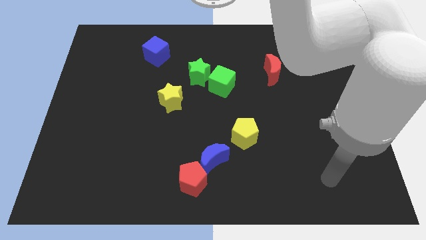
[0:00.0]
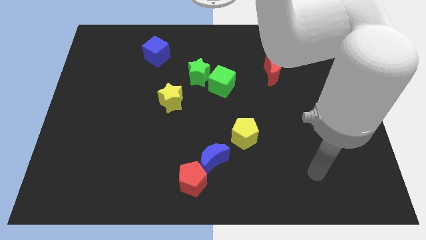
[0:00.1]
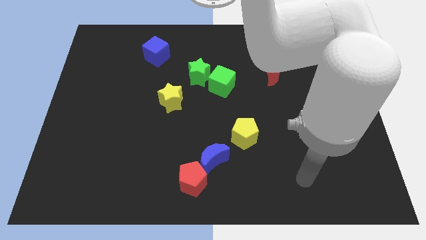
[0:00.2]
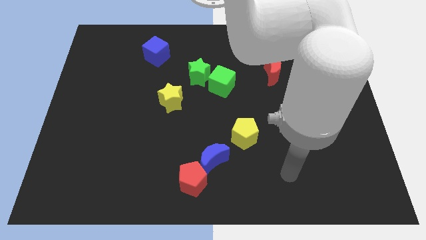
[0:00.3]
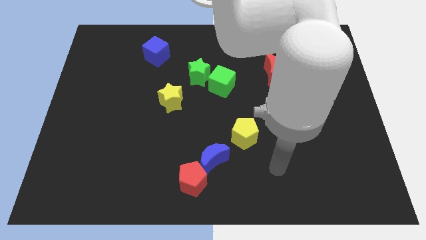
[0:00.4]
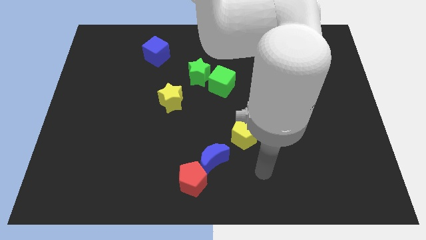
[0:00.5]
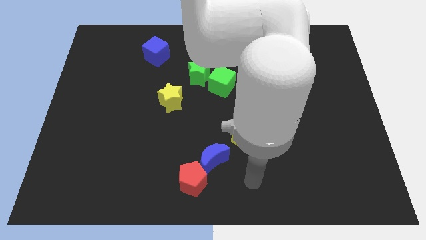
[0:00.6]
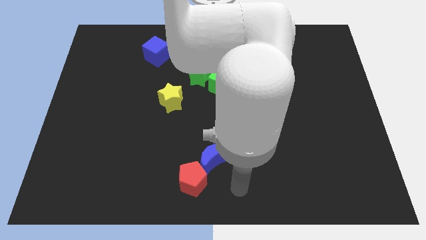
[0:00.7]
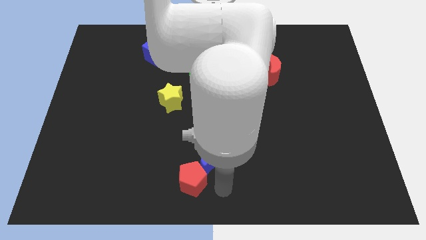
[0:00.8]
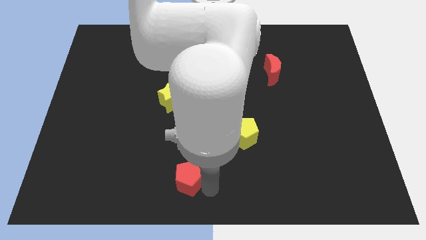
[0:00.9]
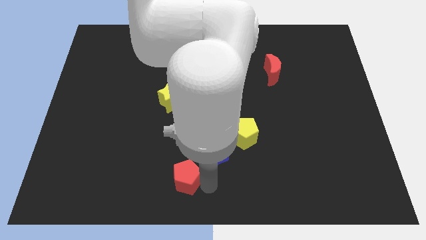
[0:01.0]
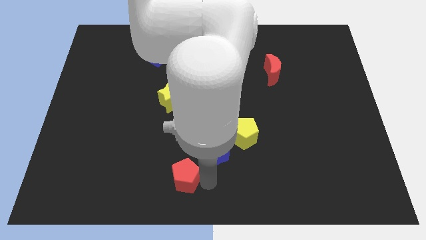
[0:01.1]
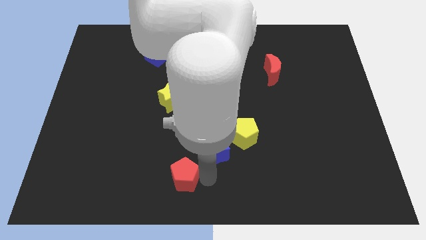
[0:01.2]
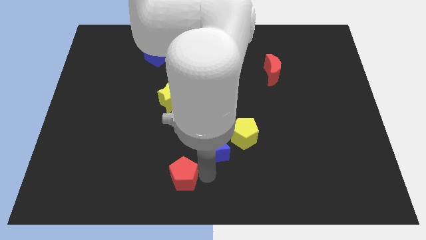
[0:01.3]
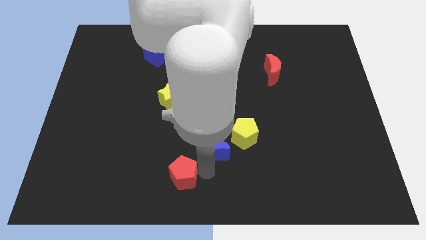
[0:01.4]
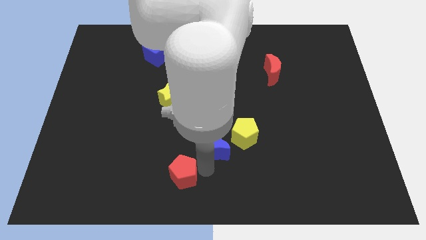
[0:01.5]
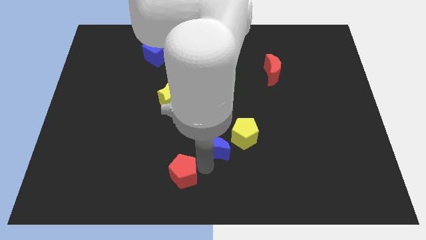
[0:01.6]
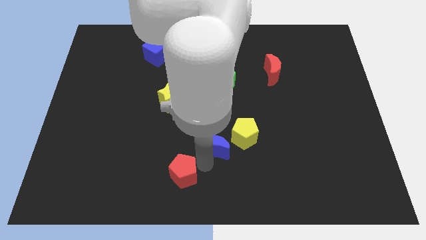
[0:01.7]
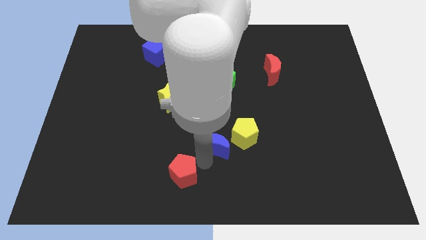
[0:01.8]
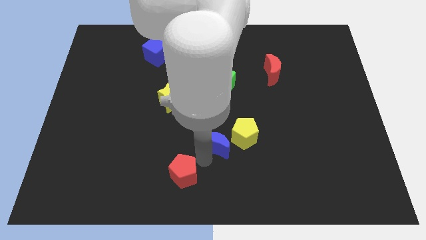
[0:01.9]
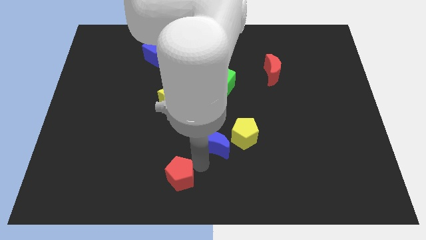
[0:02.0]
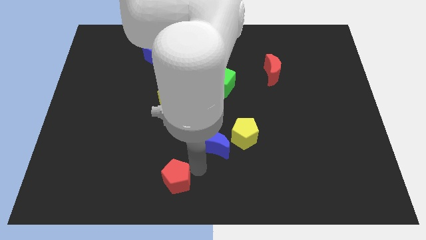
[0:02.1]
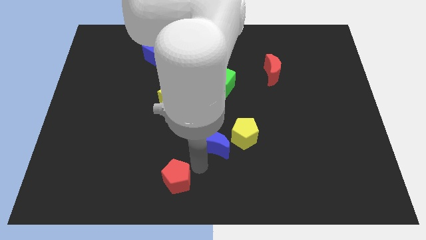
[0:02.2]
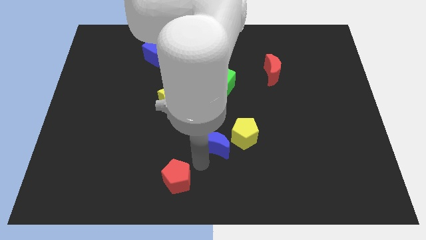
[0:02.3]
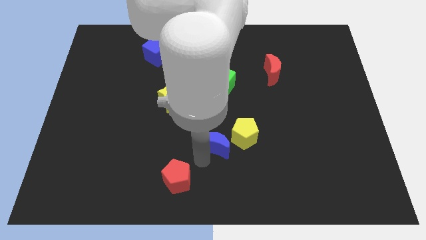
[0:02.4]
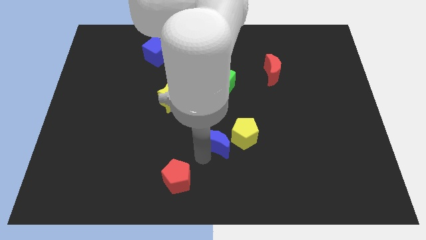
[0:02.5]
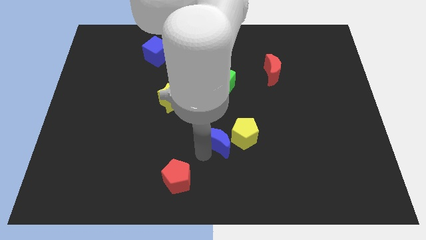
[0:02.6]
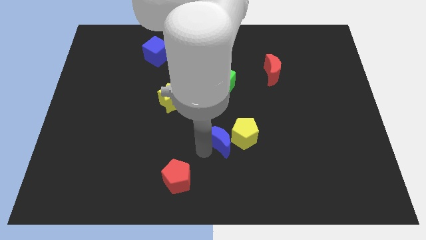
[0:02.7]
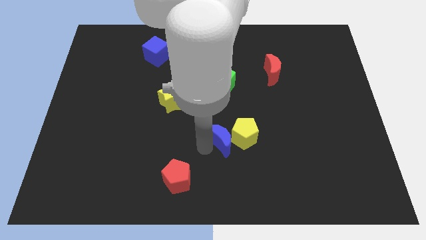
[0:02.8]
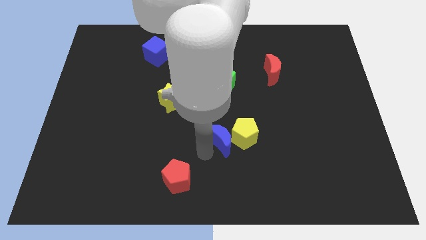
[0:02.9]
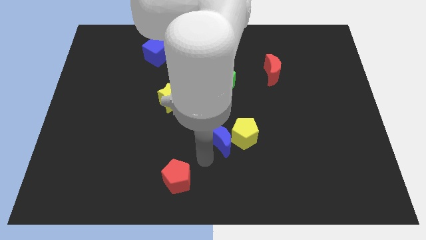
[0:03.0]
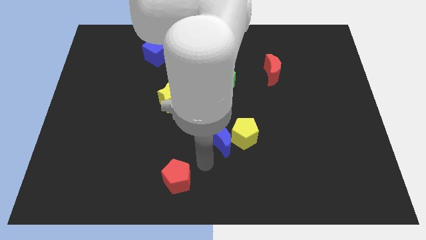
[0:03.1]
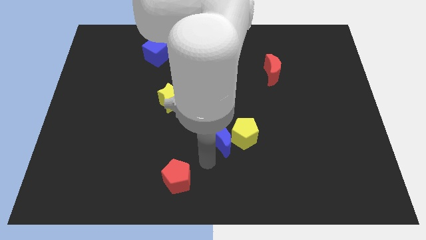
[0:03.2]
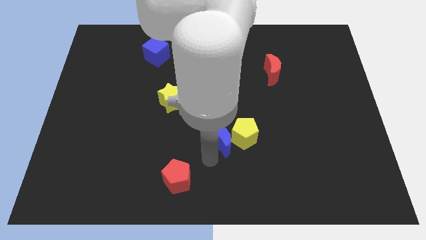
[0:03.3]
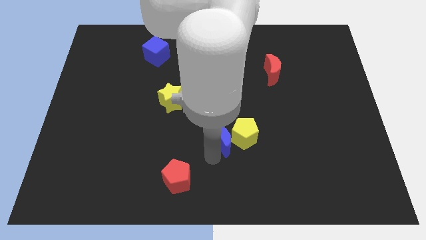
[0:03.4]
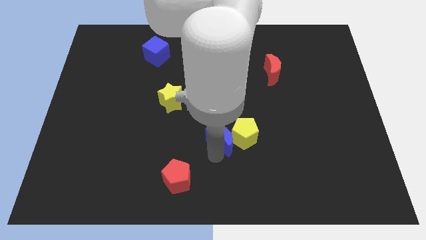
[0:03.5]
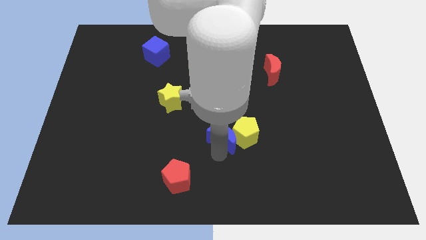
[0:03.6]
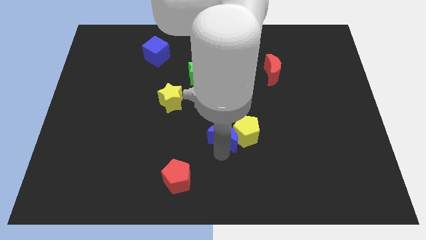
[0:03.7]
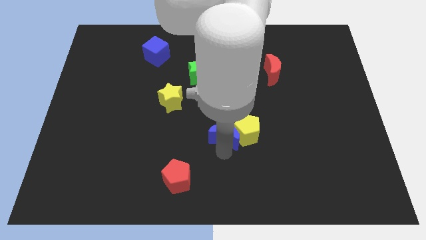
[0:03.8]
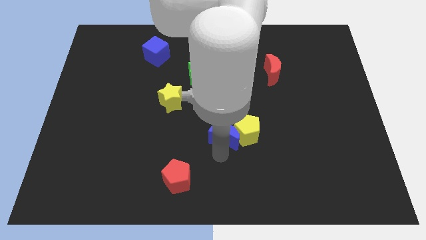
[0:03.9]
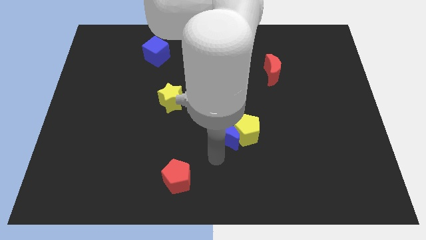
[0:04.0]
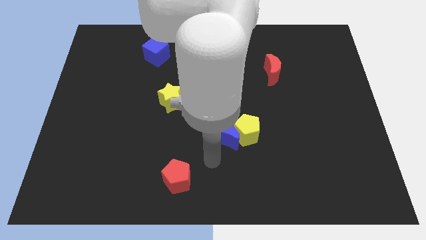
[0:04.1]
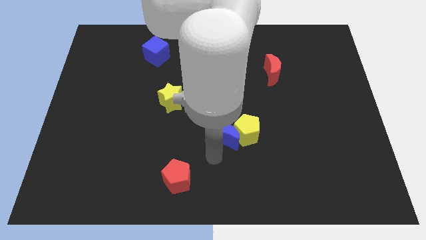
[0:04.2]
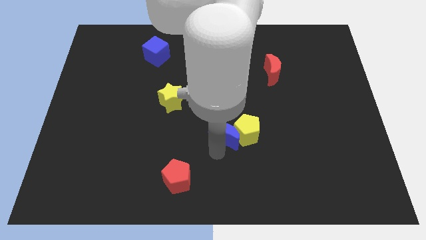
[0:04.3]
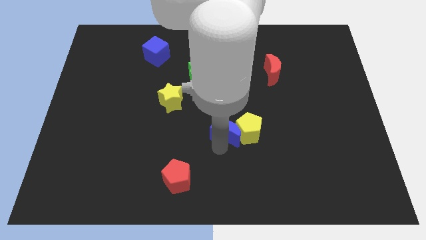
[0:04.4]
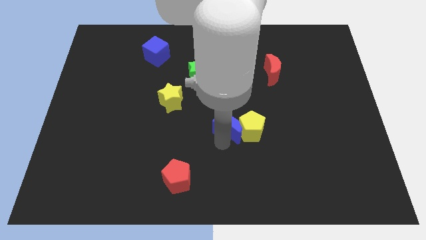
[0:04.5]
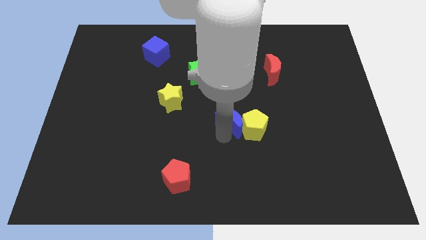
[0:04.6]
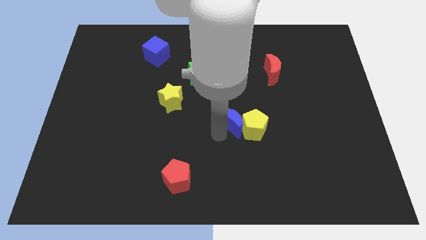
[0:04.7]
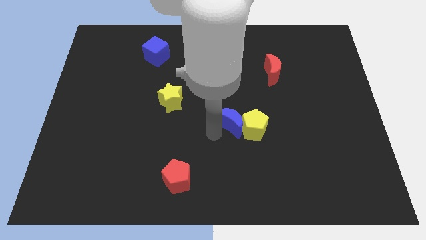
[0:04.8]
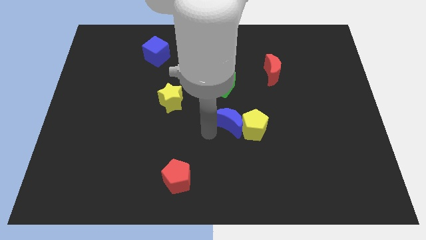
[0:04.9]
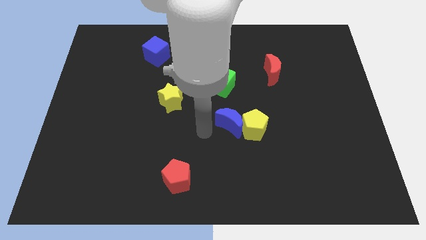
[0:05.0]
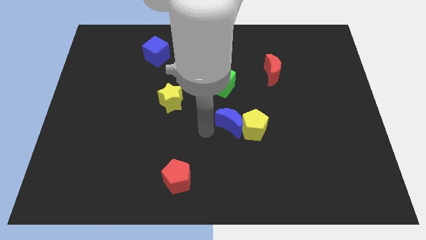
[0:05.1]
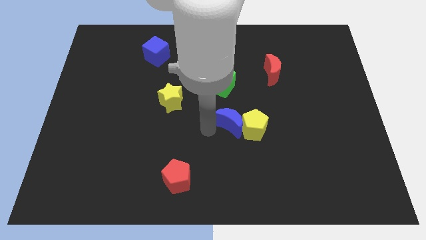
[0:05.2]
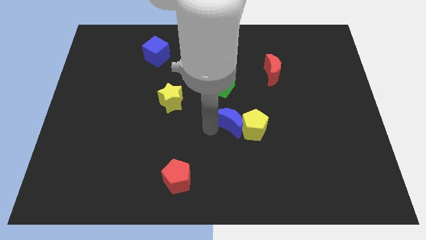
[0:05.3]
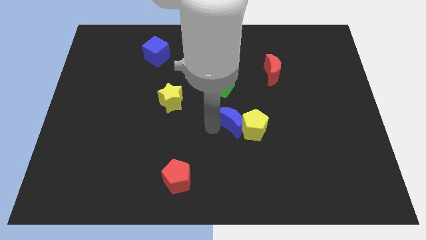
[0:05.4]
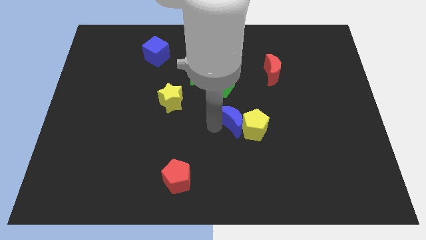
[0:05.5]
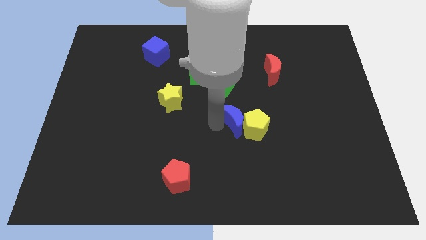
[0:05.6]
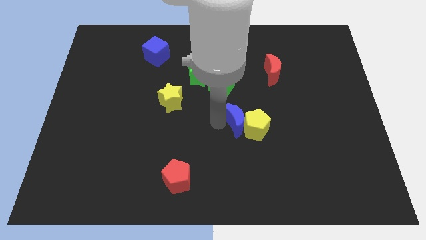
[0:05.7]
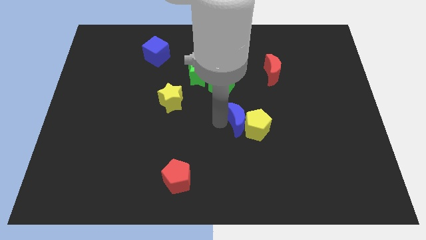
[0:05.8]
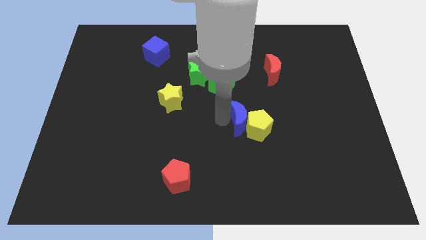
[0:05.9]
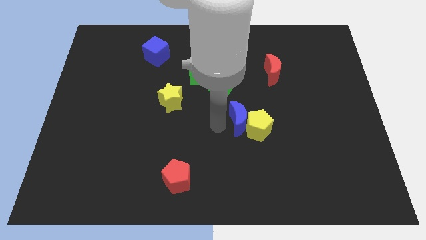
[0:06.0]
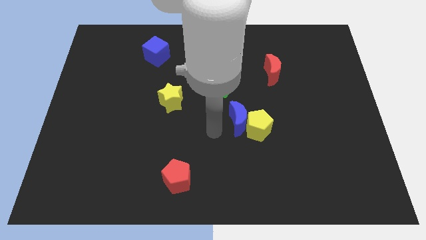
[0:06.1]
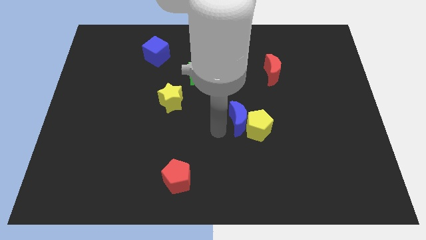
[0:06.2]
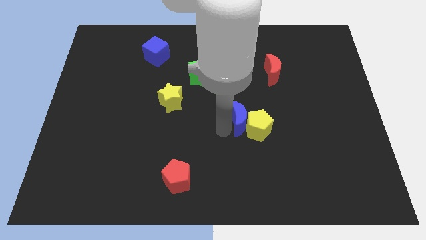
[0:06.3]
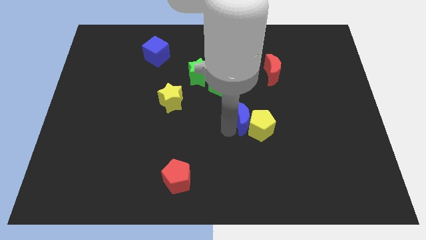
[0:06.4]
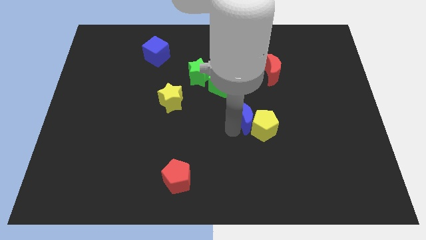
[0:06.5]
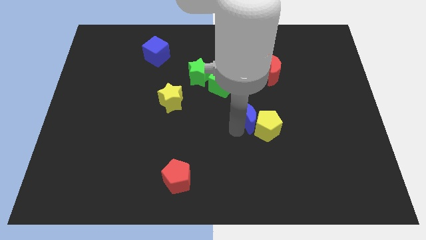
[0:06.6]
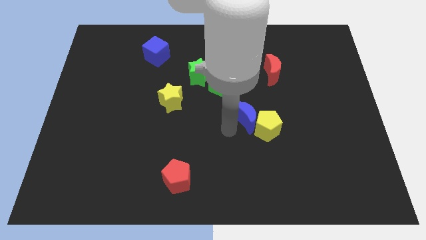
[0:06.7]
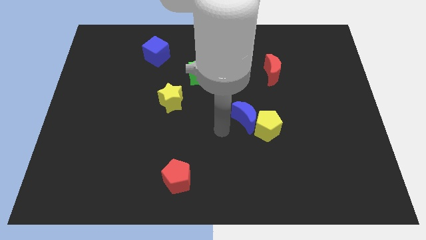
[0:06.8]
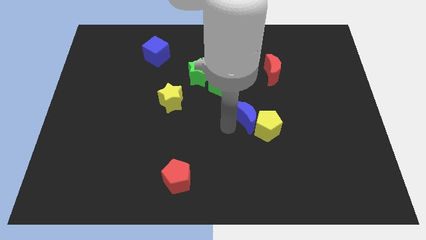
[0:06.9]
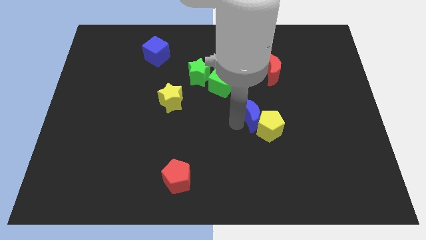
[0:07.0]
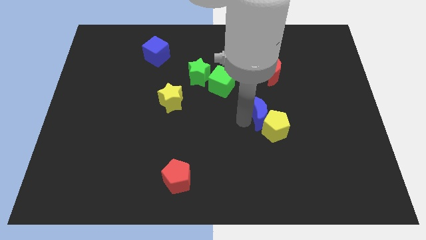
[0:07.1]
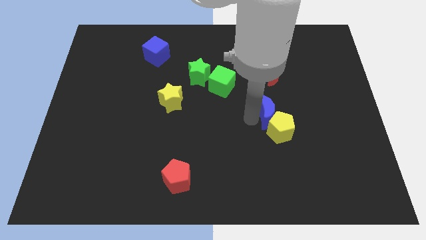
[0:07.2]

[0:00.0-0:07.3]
slide the blue moon below the red moon

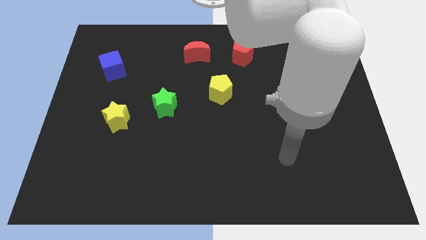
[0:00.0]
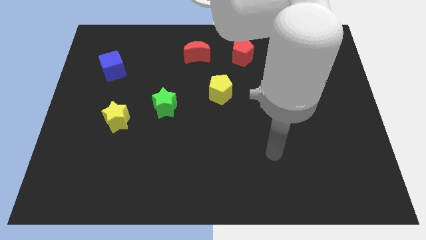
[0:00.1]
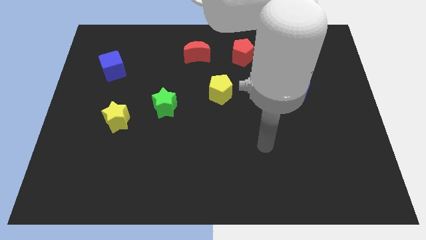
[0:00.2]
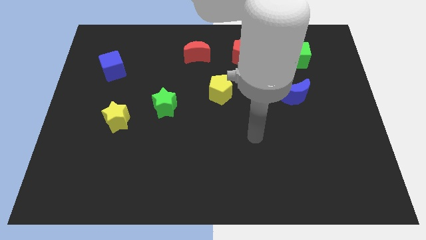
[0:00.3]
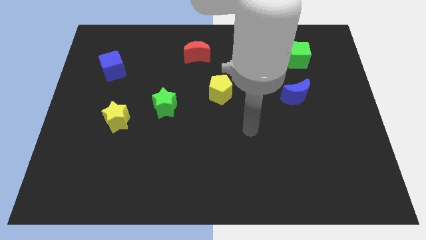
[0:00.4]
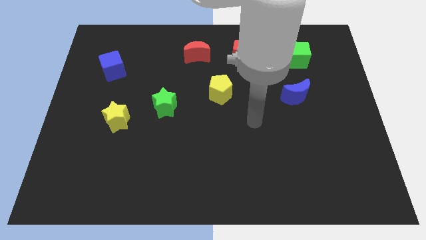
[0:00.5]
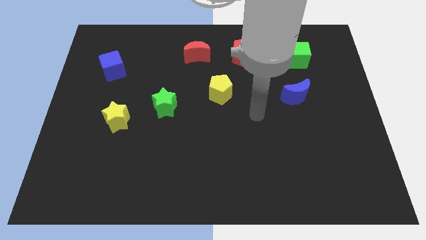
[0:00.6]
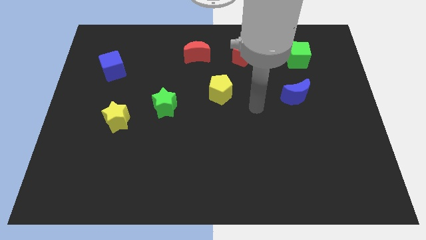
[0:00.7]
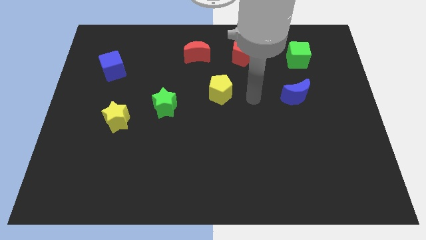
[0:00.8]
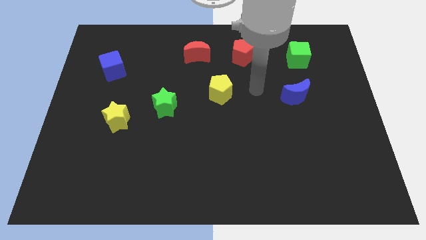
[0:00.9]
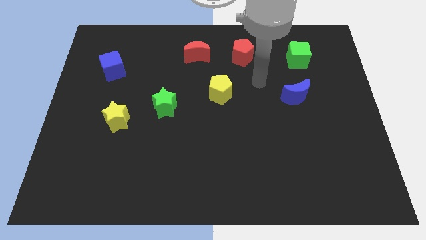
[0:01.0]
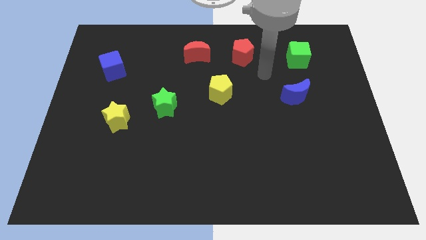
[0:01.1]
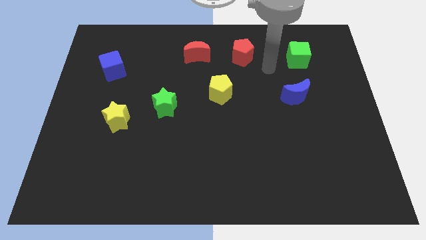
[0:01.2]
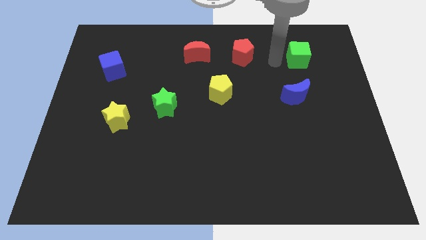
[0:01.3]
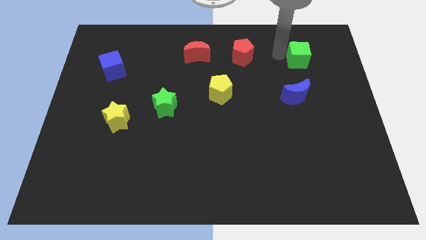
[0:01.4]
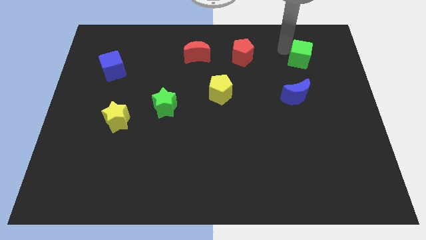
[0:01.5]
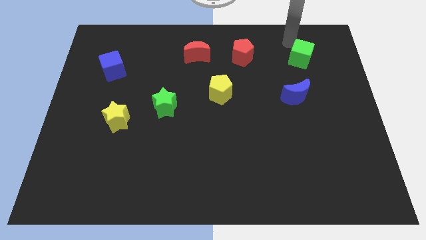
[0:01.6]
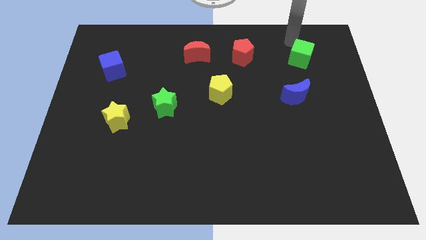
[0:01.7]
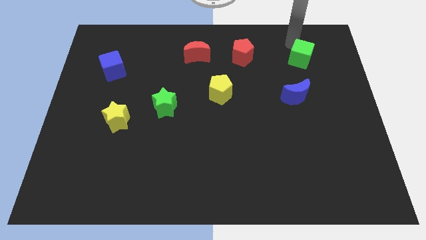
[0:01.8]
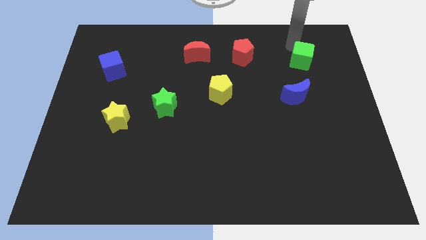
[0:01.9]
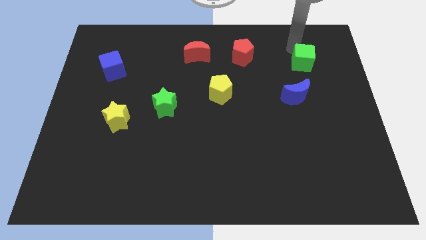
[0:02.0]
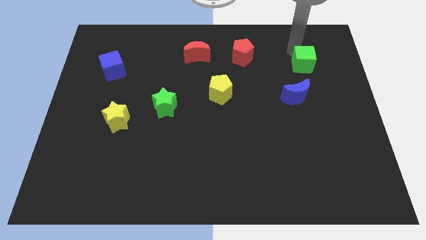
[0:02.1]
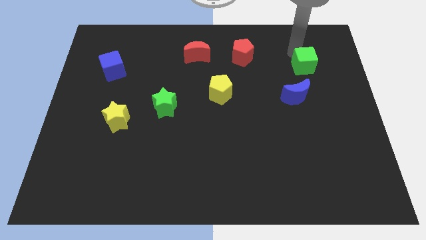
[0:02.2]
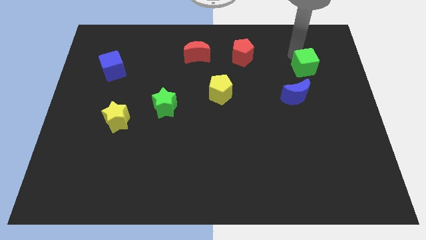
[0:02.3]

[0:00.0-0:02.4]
move the green cube to the top right side of the blue moon
